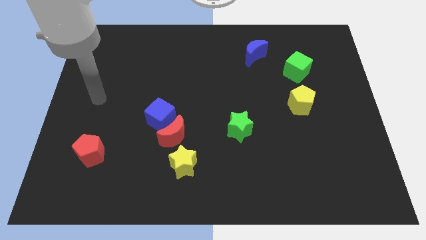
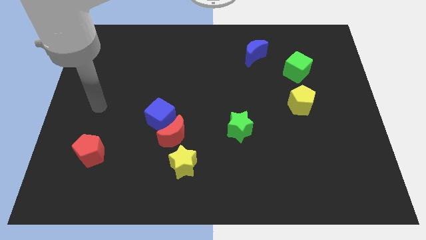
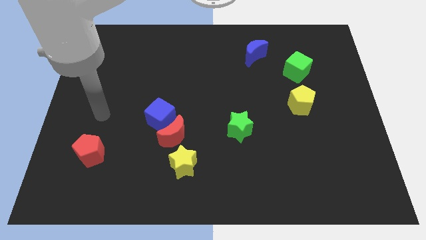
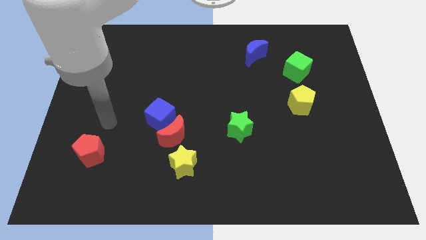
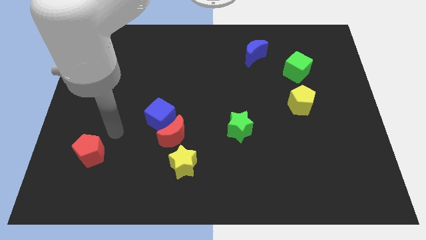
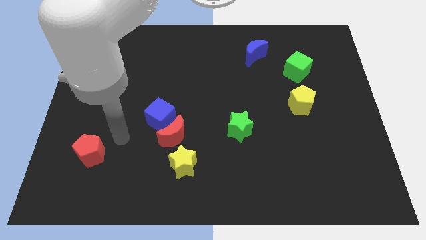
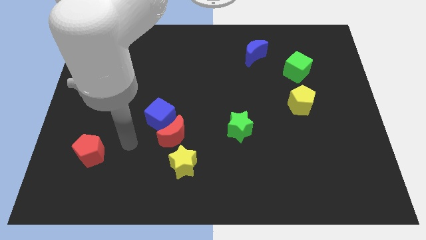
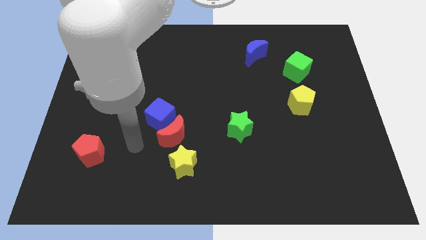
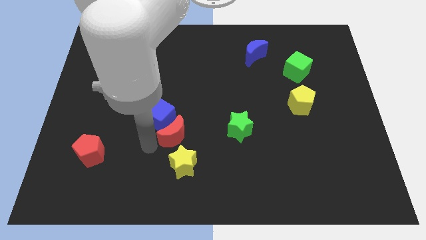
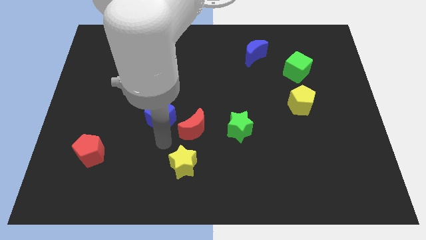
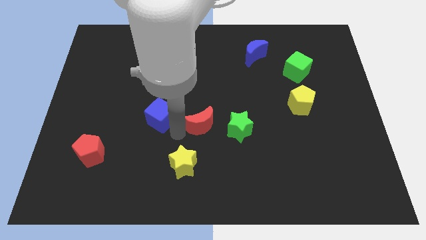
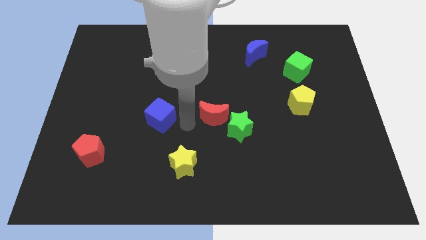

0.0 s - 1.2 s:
pull the blue cube apart from the red moon

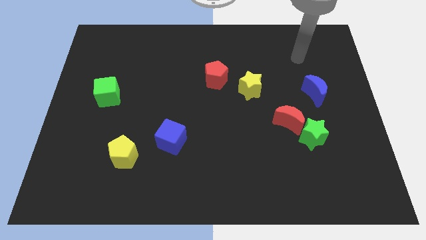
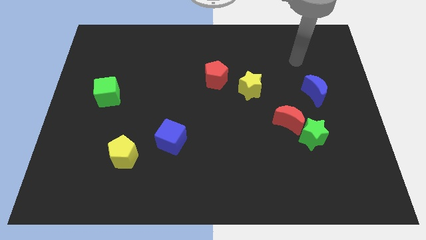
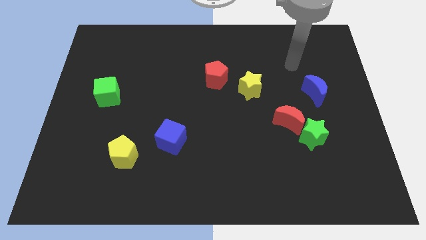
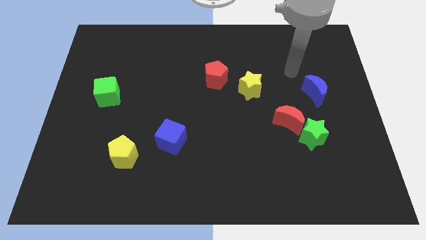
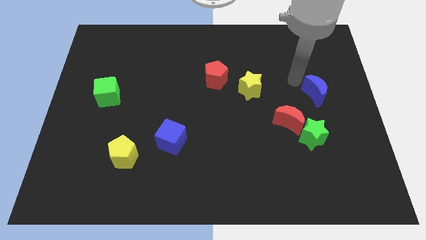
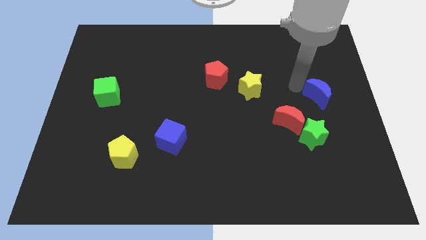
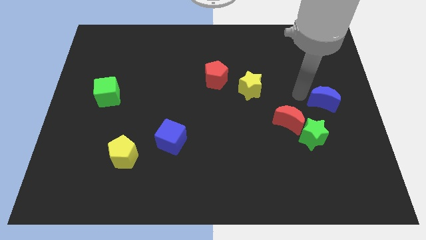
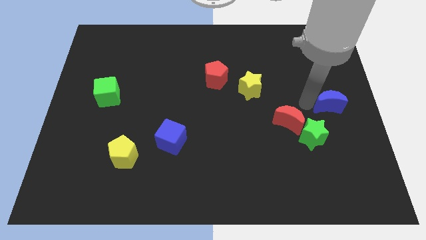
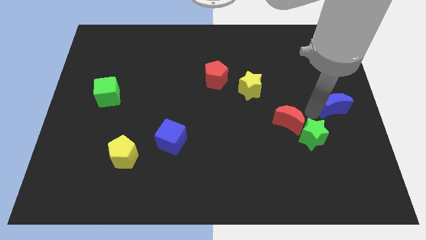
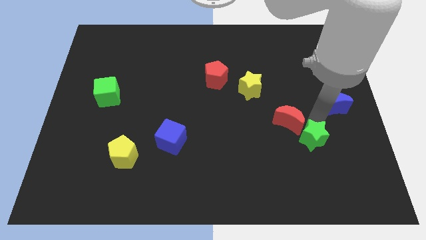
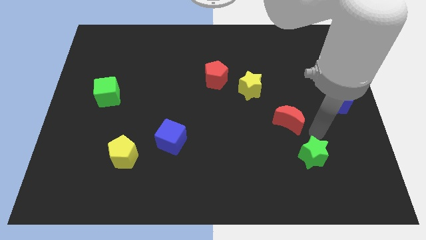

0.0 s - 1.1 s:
pull the red moon apart from the green star

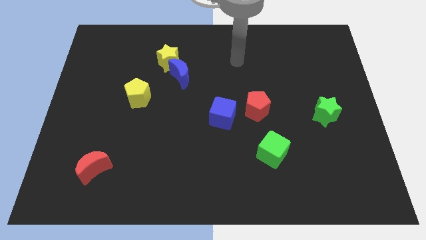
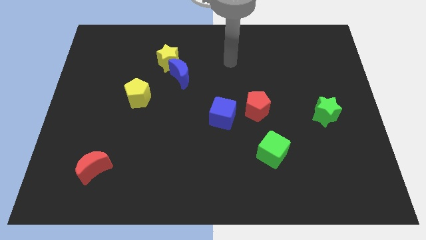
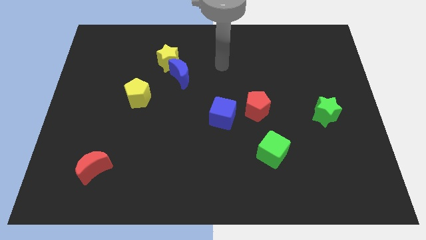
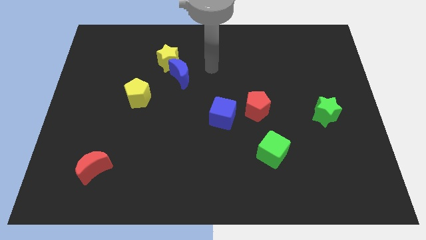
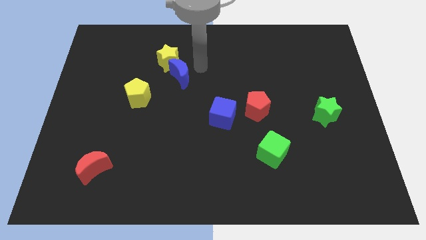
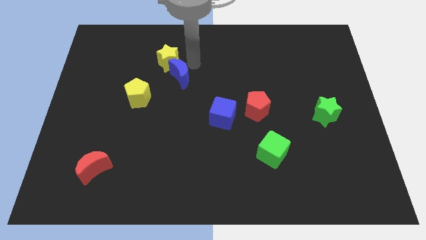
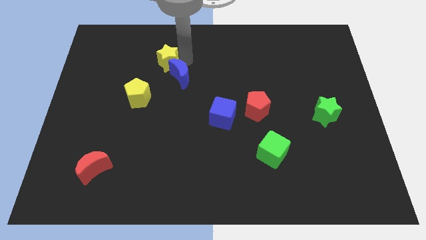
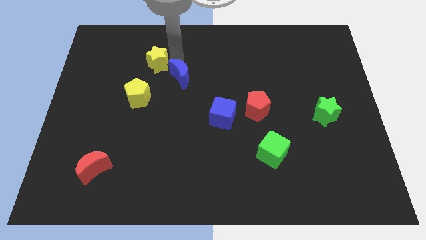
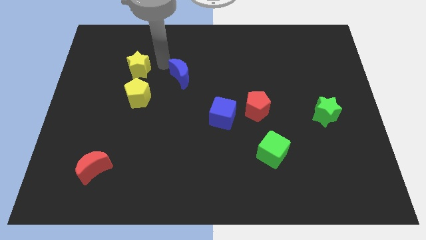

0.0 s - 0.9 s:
separate the blue moon from the yellow star

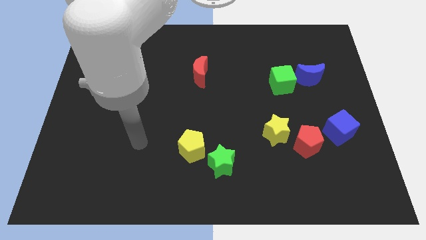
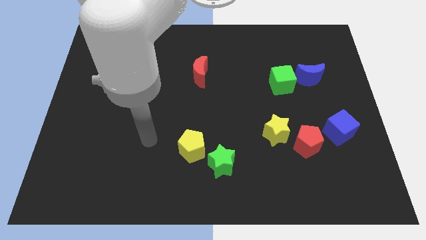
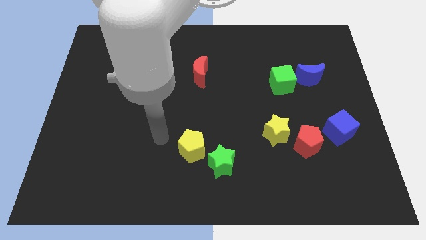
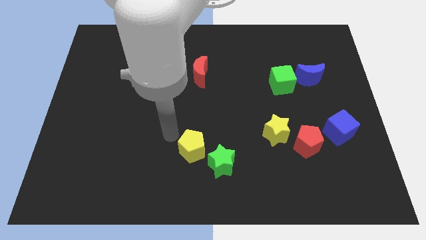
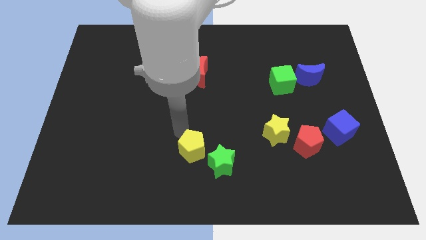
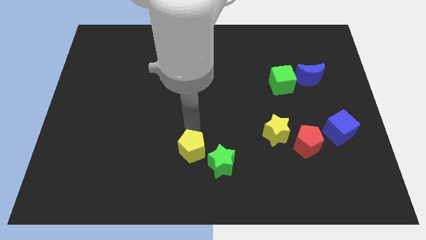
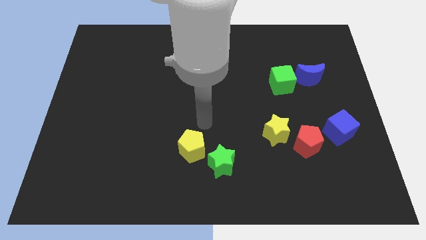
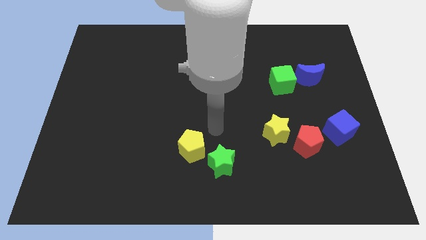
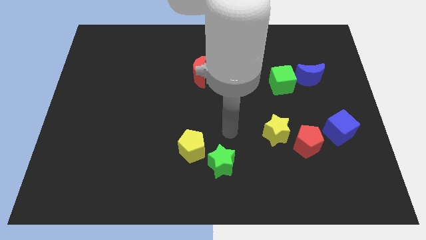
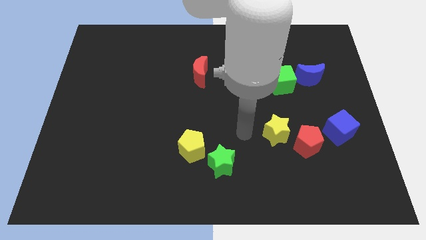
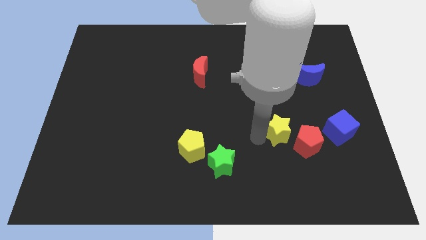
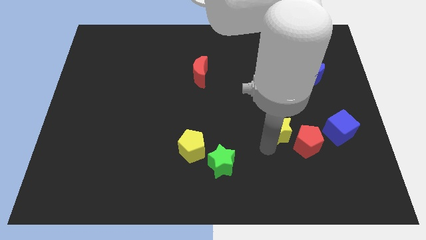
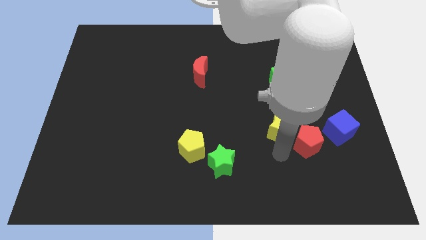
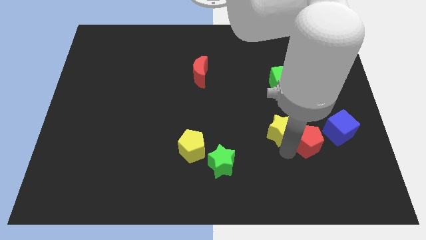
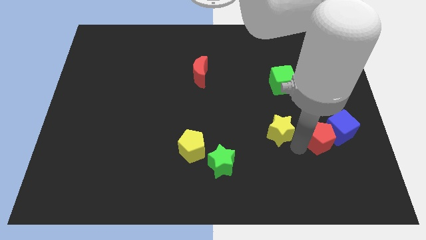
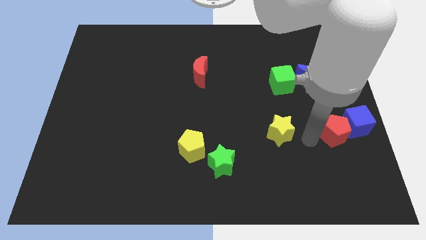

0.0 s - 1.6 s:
pull the yellow star apart from the red pentagon

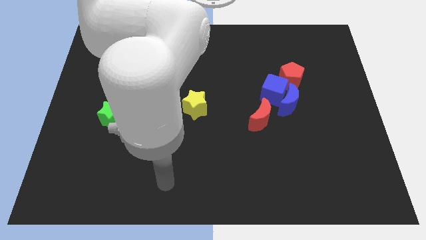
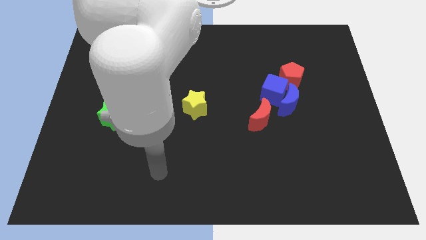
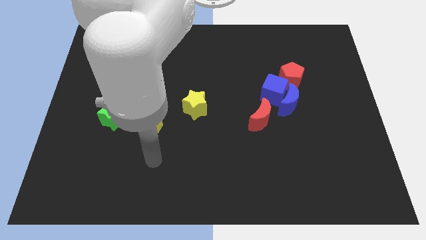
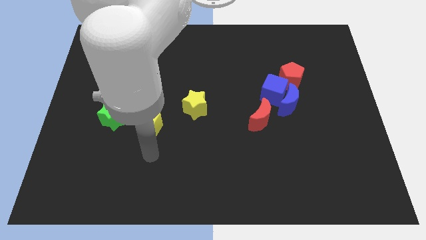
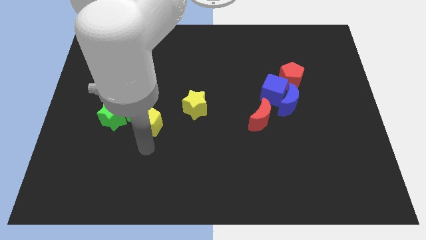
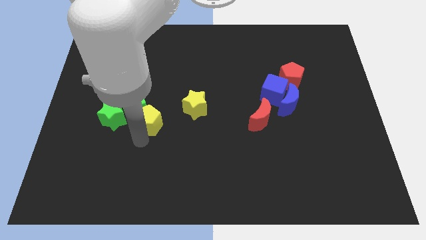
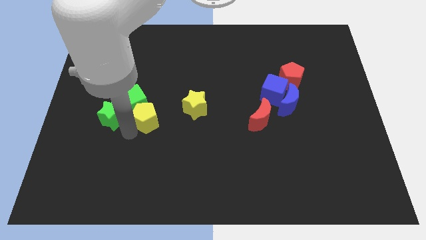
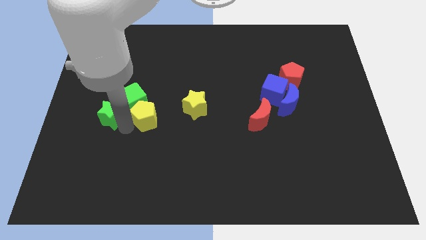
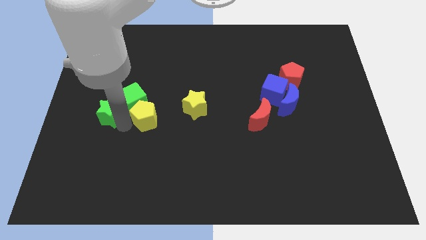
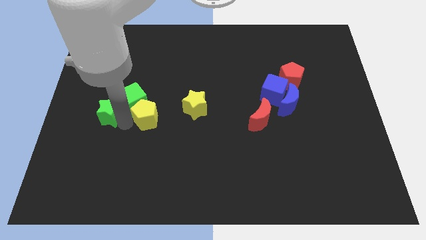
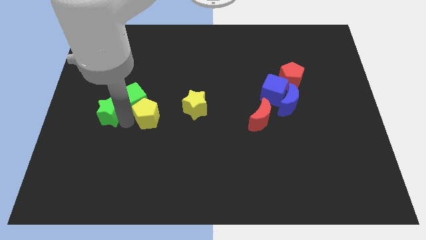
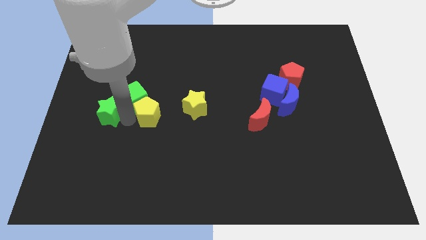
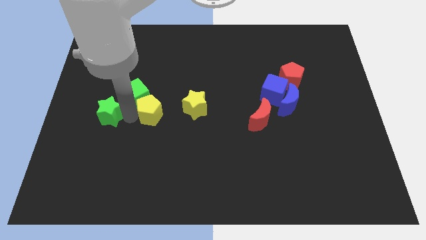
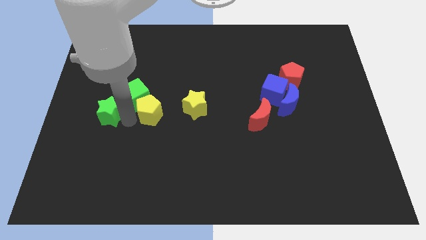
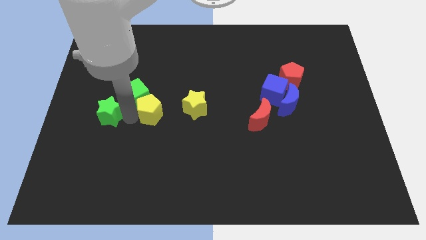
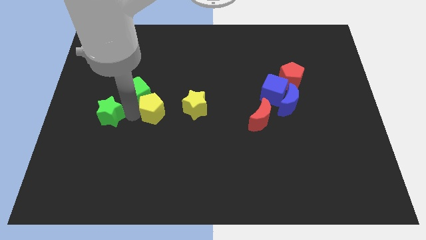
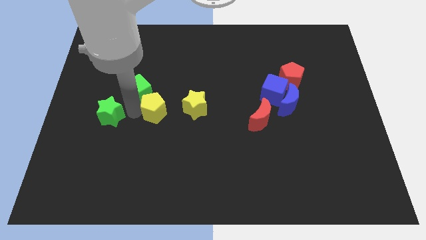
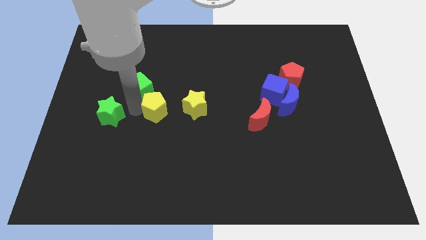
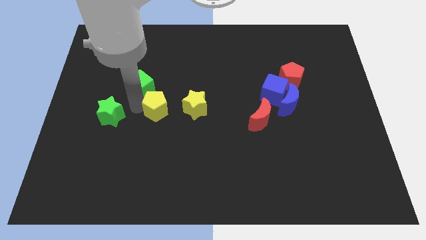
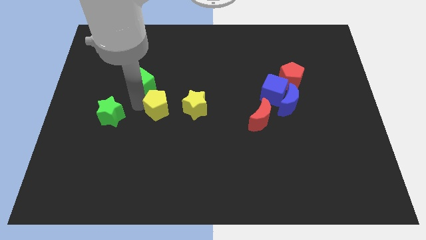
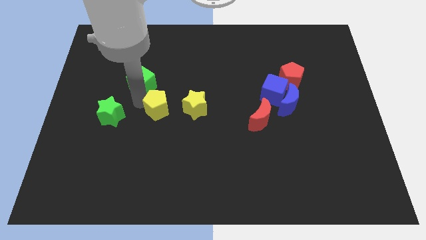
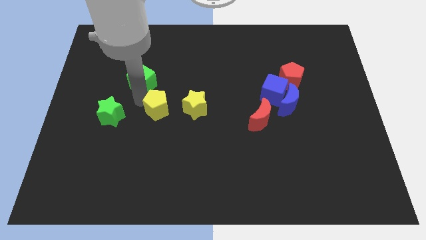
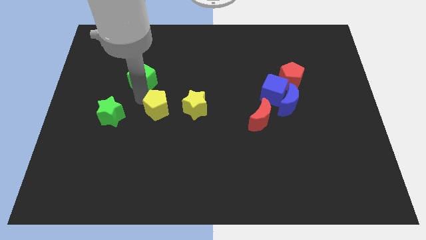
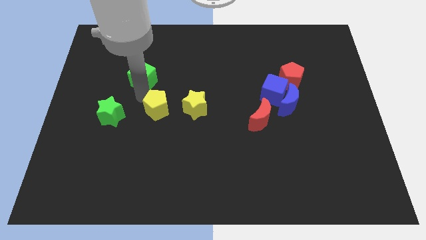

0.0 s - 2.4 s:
move the green cube away from the green star and yellow pentagon

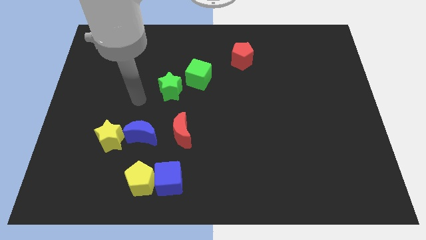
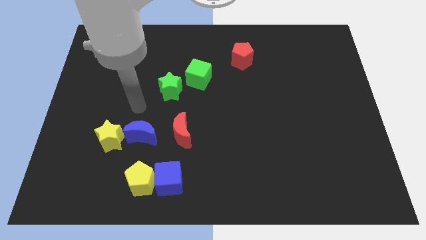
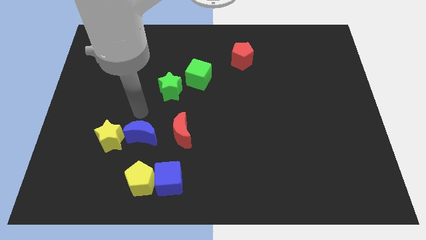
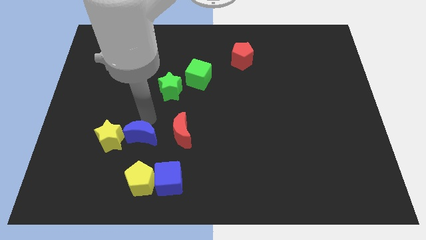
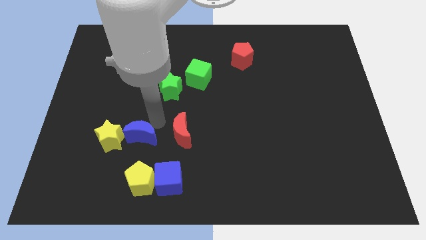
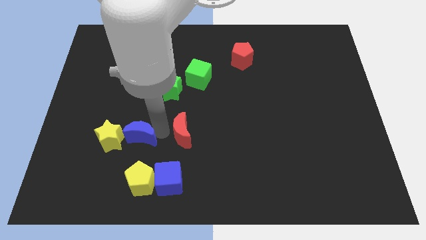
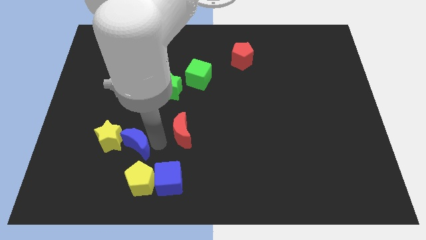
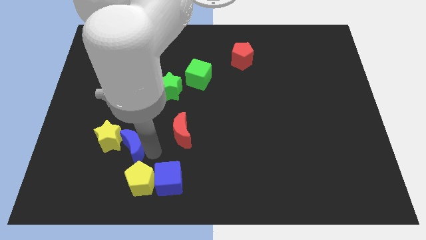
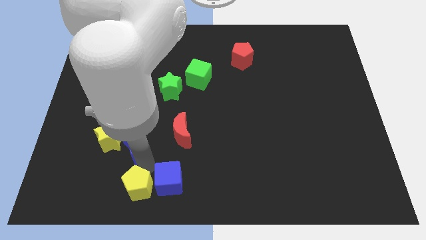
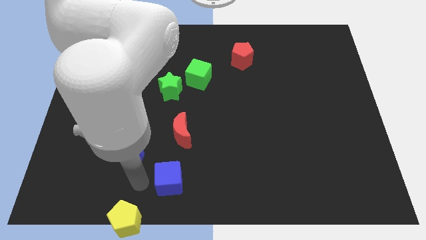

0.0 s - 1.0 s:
pull the blue cube apart from the yellow pentagon

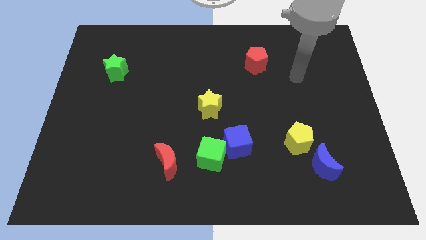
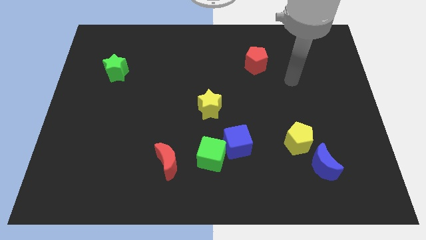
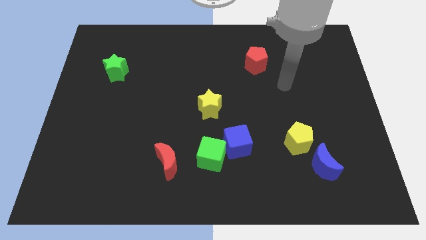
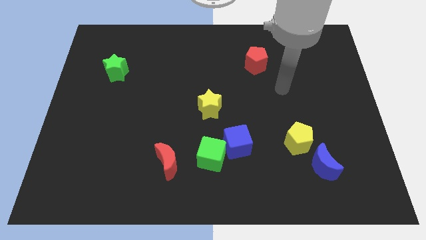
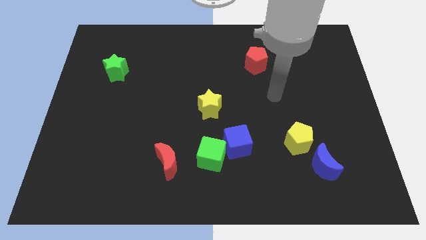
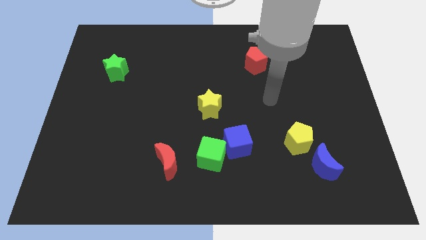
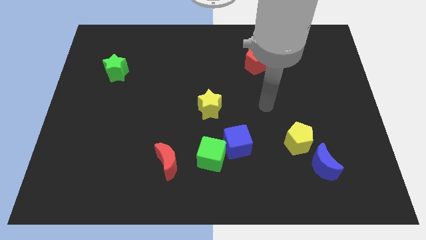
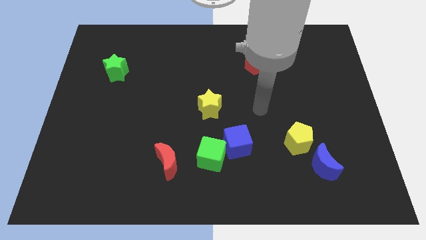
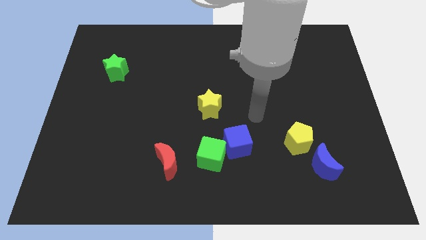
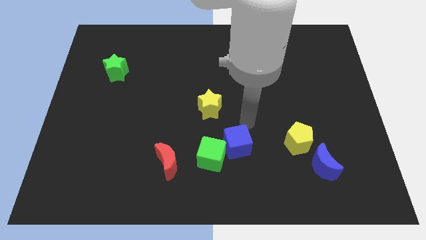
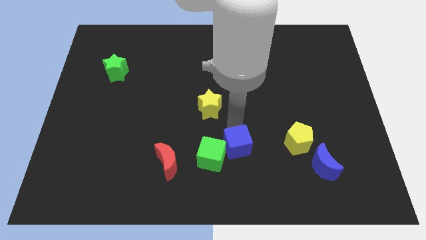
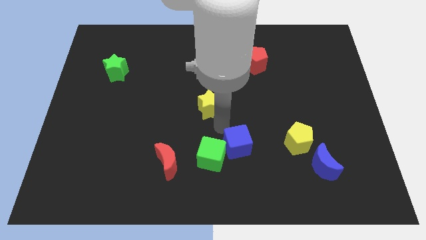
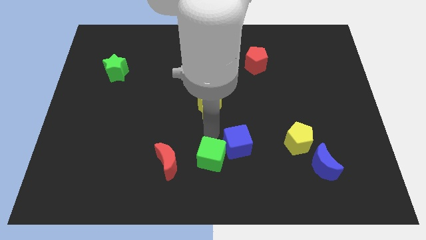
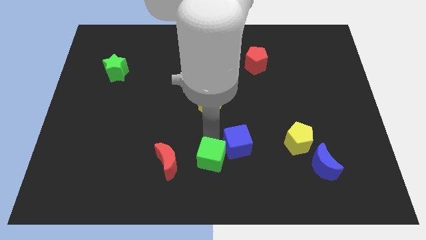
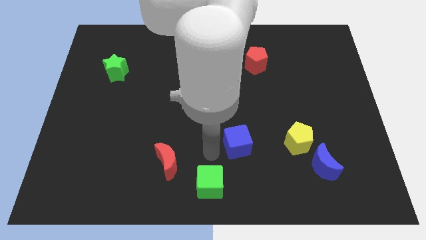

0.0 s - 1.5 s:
move the blue cube away from the green cube
